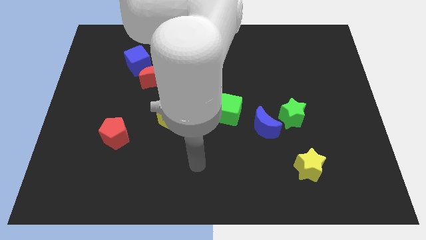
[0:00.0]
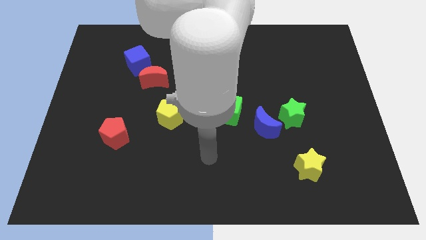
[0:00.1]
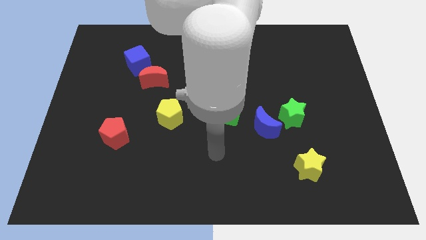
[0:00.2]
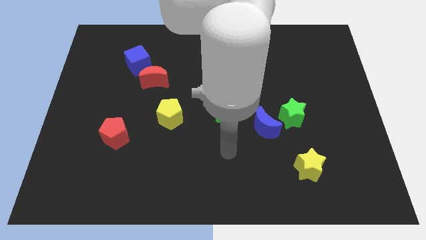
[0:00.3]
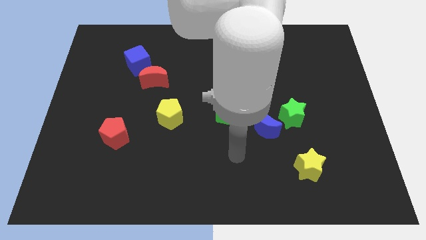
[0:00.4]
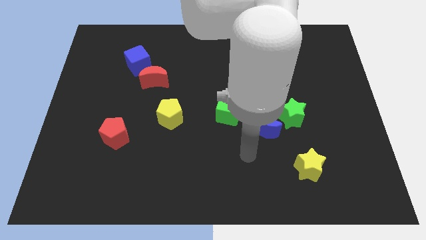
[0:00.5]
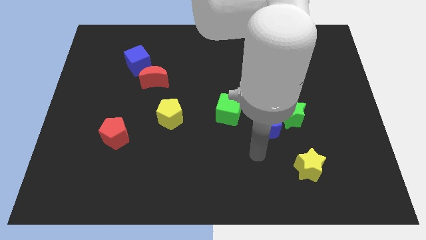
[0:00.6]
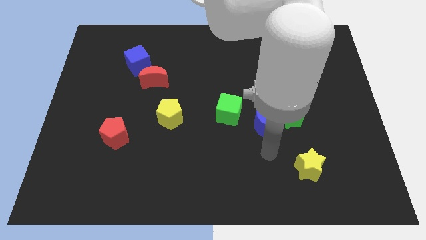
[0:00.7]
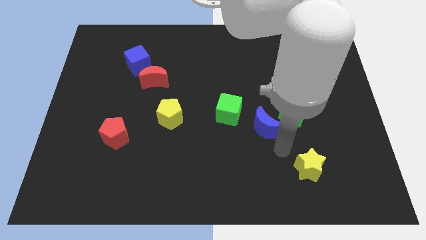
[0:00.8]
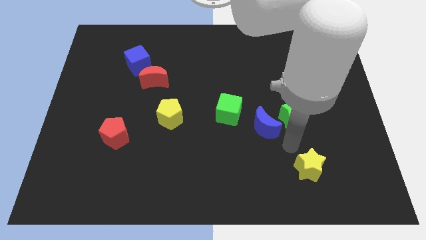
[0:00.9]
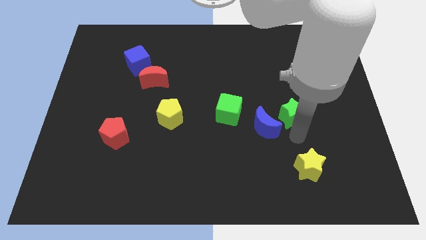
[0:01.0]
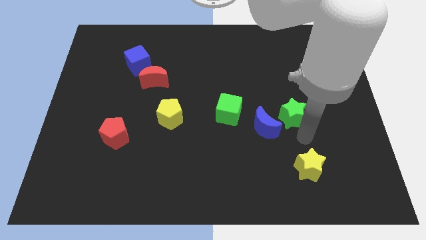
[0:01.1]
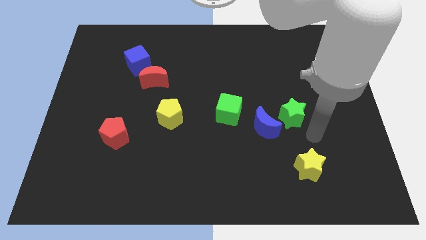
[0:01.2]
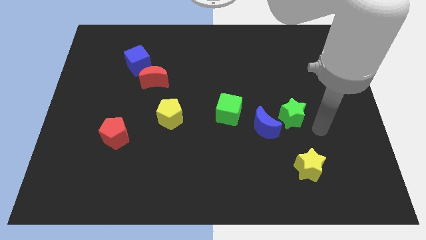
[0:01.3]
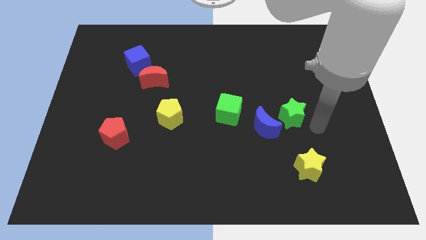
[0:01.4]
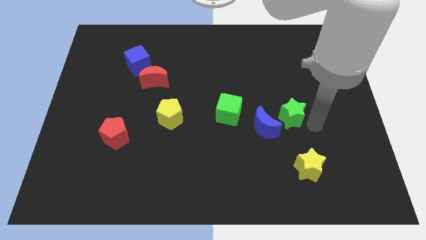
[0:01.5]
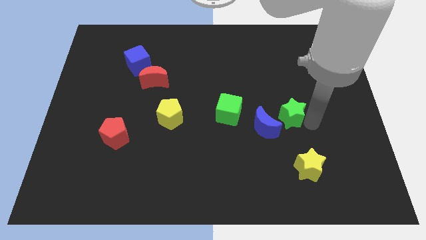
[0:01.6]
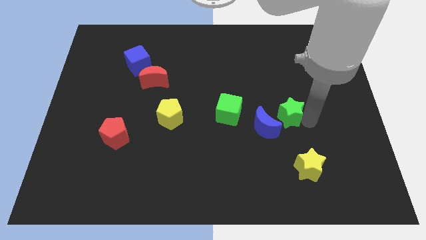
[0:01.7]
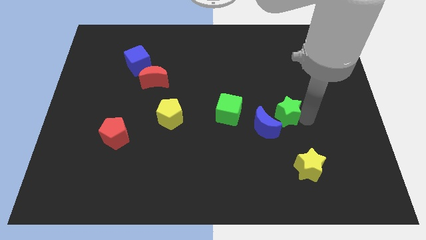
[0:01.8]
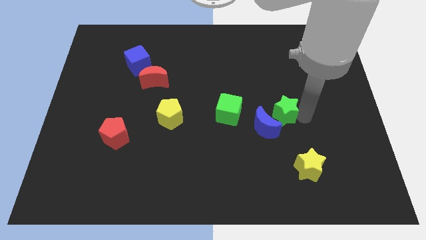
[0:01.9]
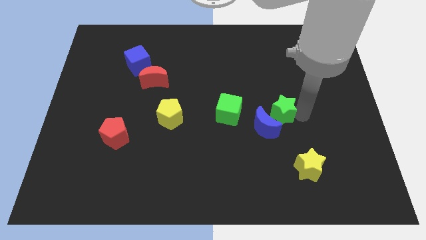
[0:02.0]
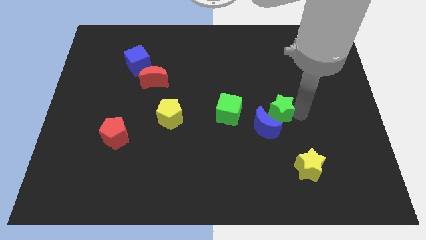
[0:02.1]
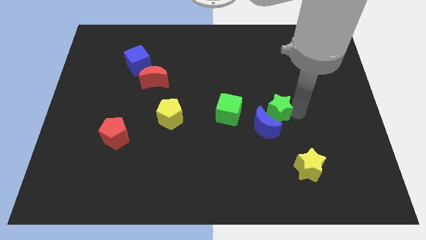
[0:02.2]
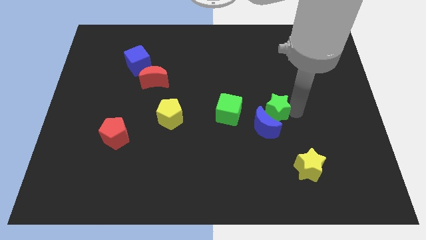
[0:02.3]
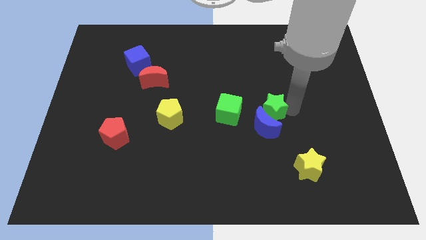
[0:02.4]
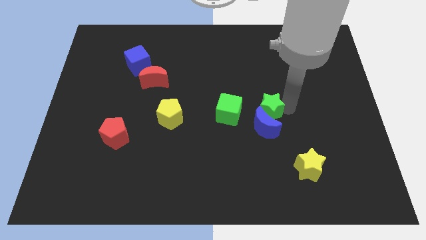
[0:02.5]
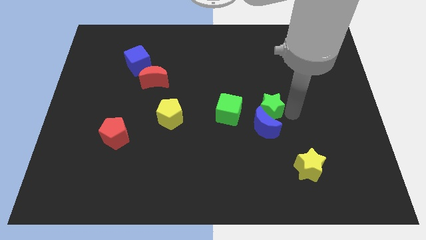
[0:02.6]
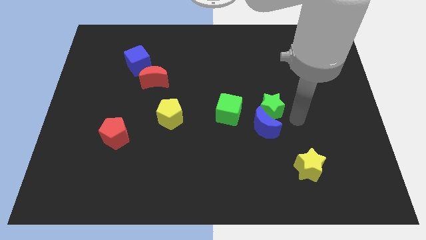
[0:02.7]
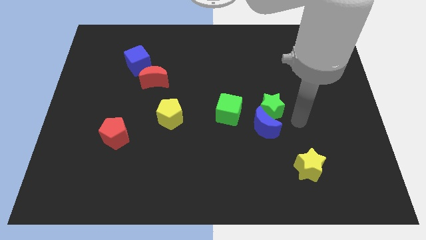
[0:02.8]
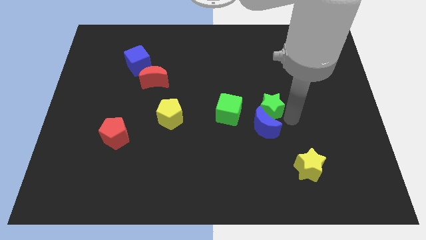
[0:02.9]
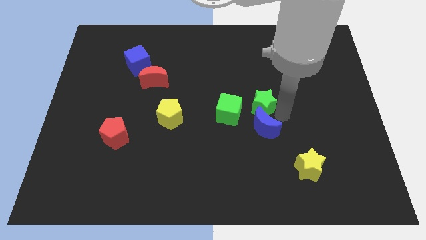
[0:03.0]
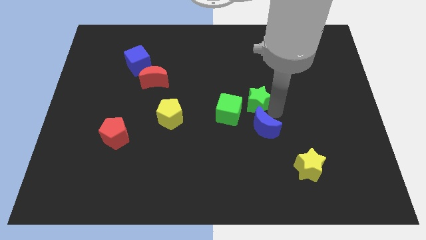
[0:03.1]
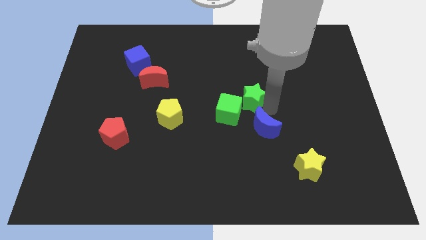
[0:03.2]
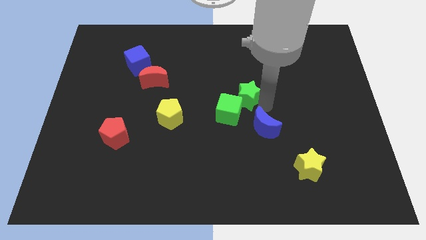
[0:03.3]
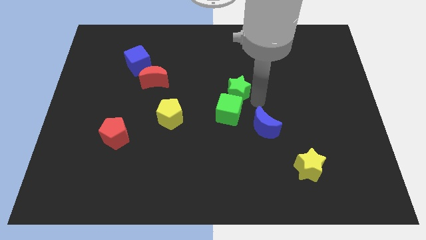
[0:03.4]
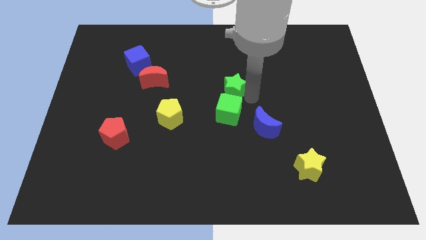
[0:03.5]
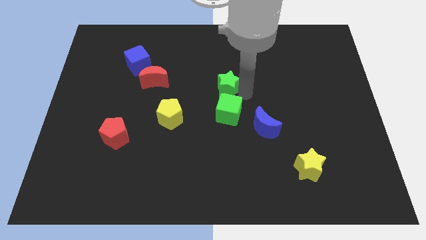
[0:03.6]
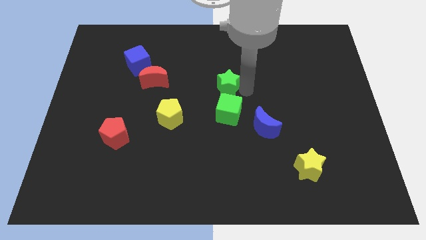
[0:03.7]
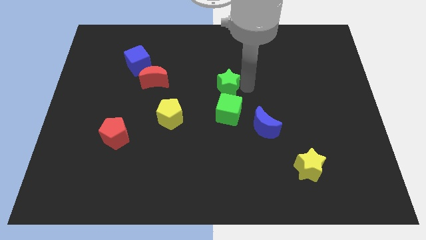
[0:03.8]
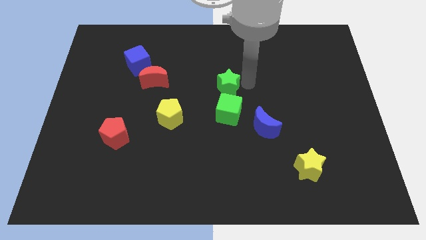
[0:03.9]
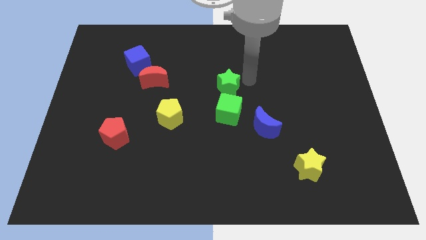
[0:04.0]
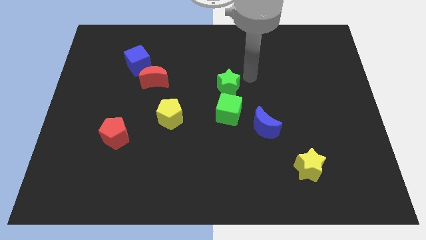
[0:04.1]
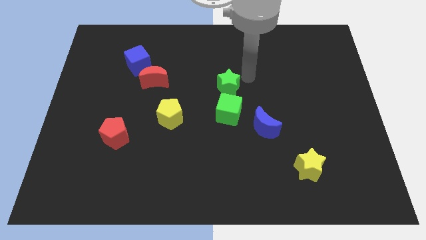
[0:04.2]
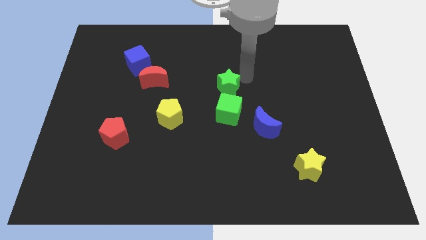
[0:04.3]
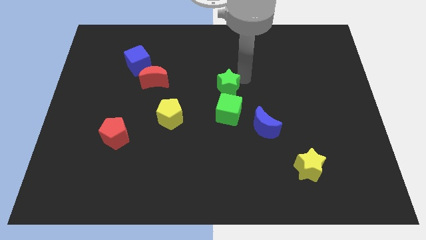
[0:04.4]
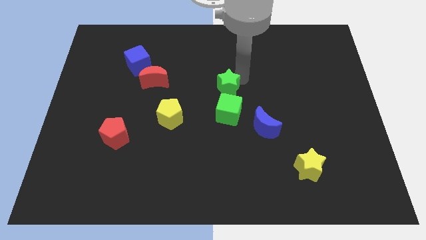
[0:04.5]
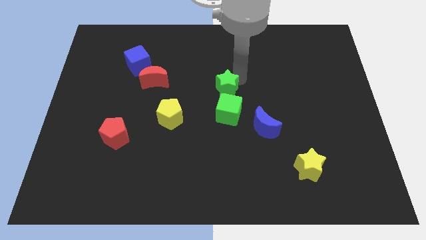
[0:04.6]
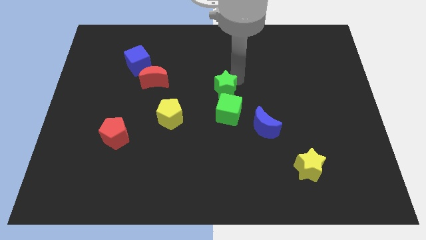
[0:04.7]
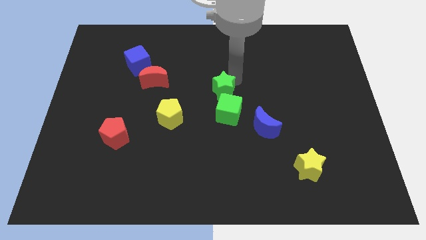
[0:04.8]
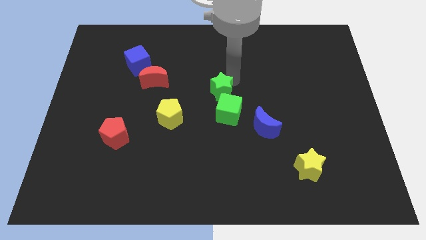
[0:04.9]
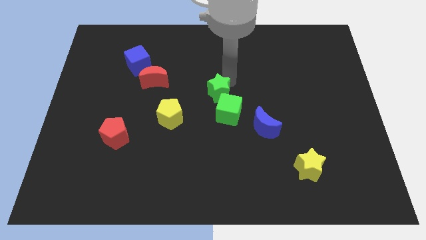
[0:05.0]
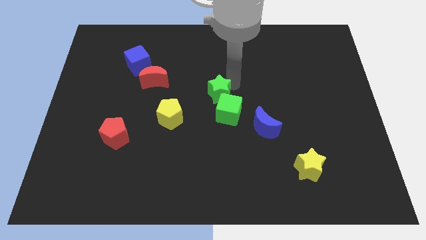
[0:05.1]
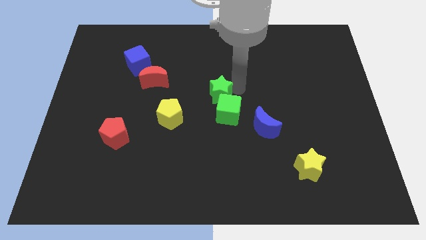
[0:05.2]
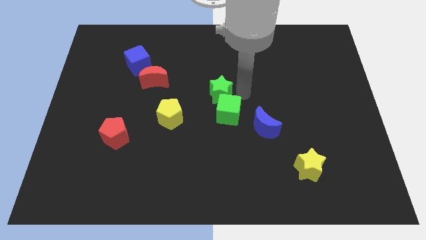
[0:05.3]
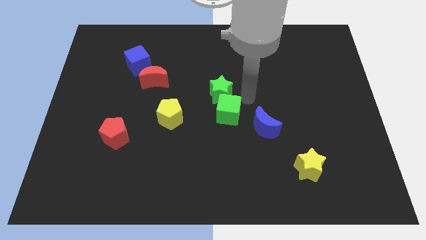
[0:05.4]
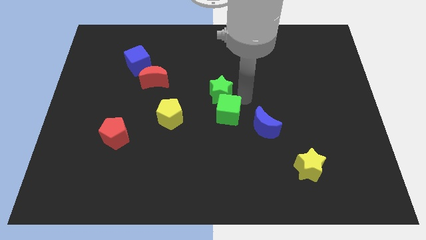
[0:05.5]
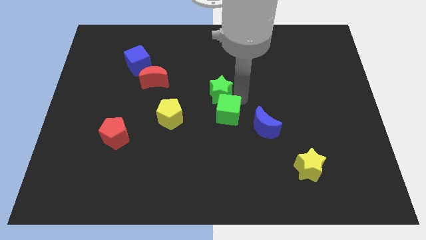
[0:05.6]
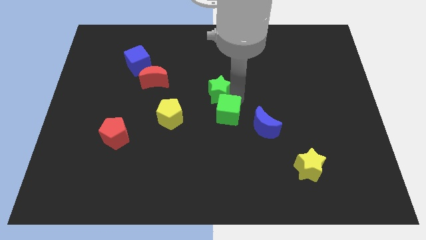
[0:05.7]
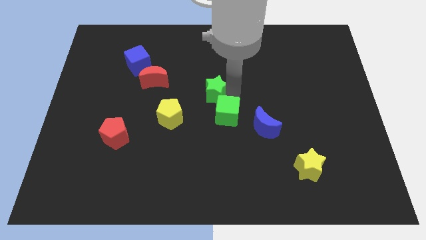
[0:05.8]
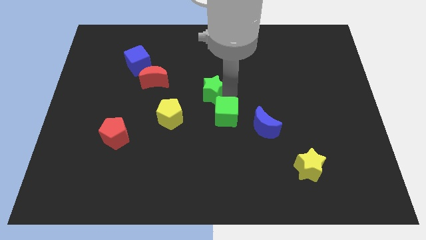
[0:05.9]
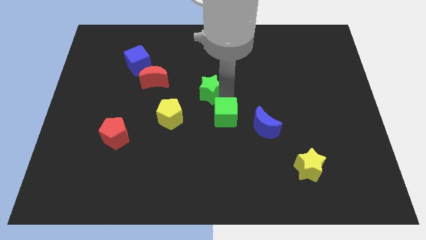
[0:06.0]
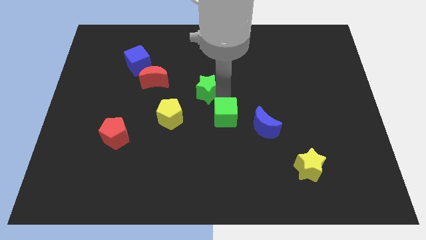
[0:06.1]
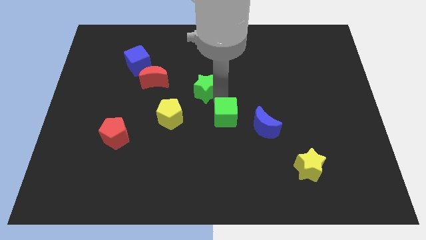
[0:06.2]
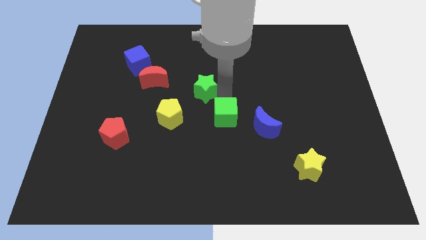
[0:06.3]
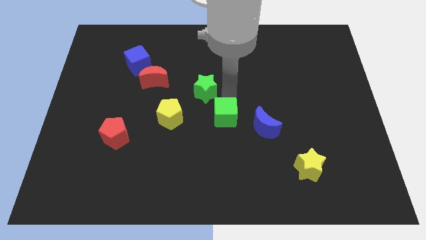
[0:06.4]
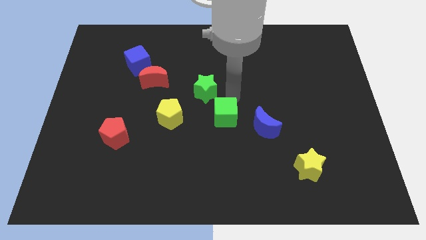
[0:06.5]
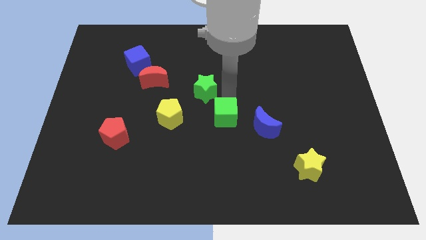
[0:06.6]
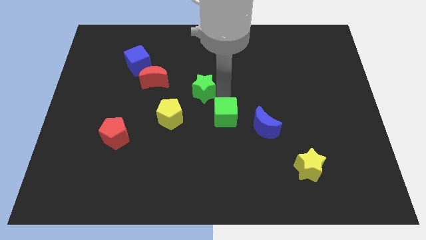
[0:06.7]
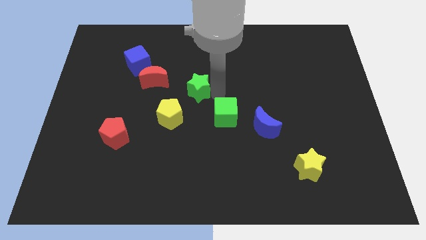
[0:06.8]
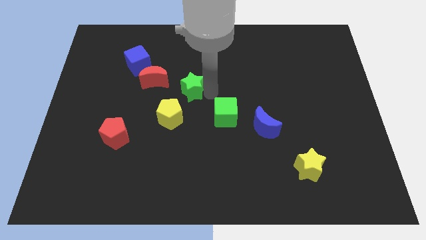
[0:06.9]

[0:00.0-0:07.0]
push the green star above the yellow pentagon

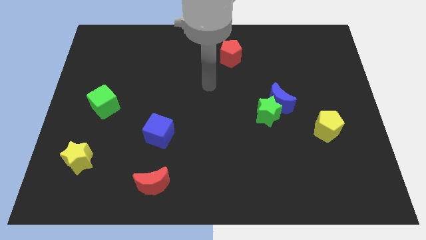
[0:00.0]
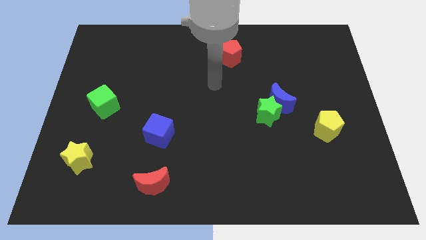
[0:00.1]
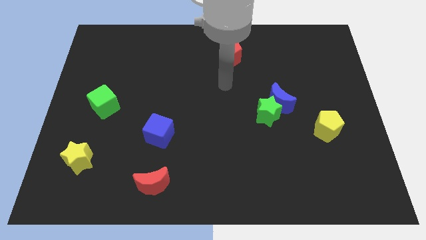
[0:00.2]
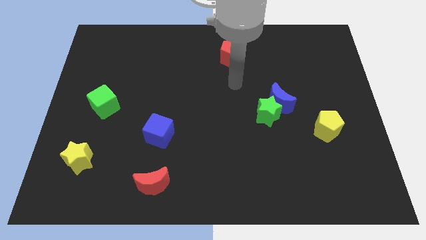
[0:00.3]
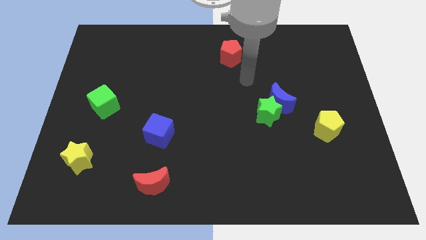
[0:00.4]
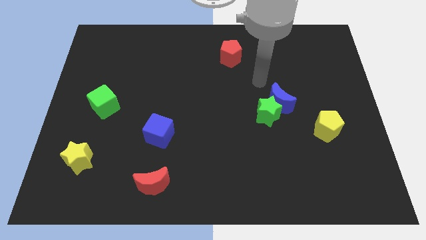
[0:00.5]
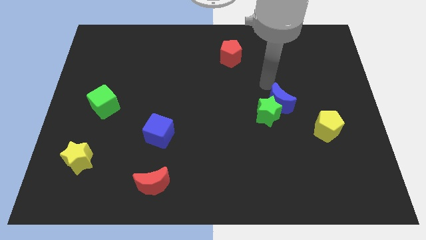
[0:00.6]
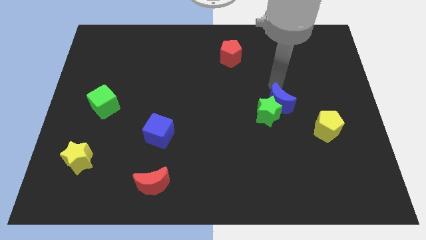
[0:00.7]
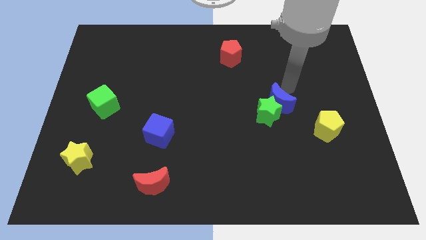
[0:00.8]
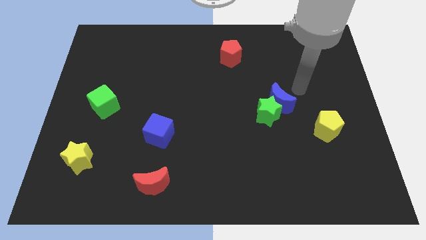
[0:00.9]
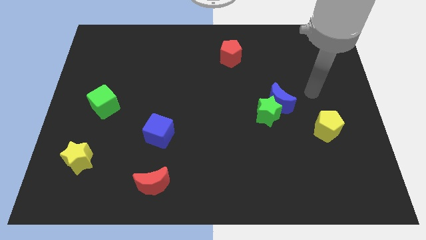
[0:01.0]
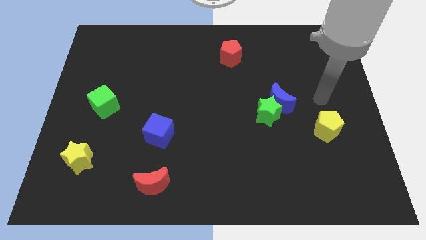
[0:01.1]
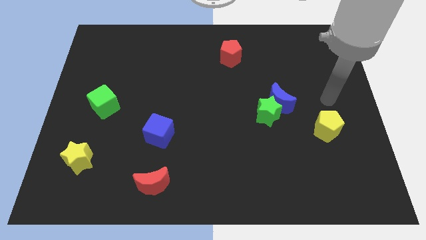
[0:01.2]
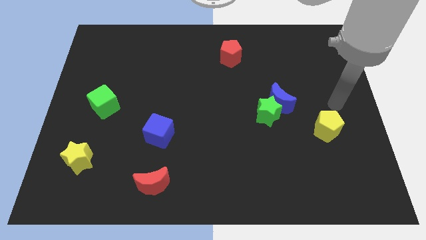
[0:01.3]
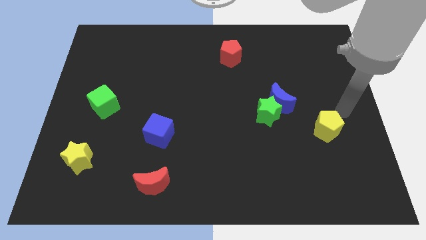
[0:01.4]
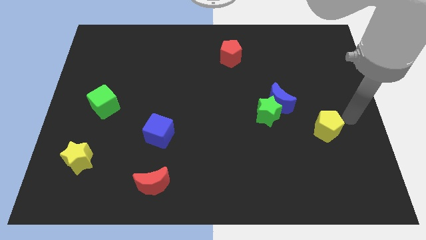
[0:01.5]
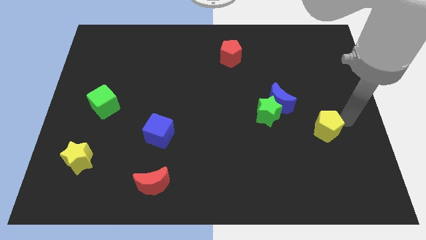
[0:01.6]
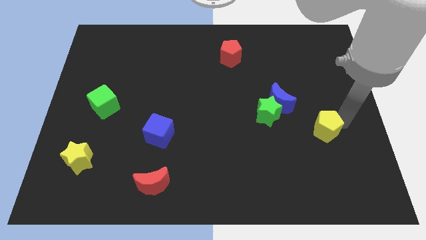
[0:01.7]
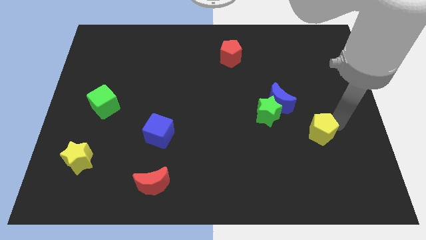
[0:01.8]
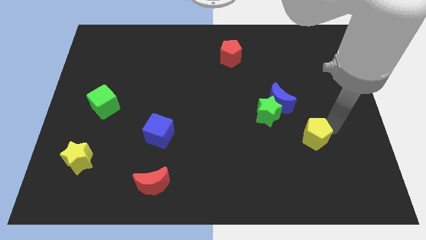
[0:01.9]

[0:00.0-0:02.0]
put the yellow pentagon diagonally down and to the right of the green star
